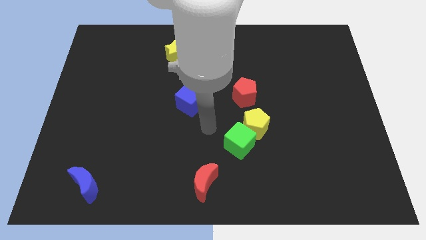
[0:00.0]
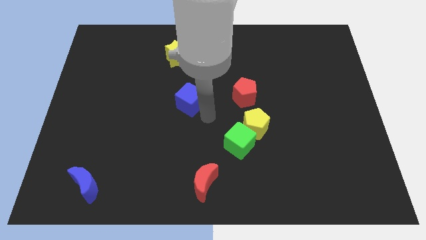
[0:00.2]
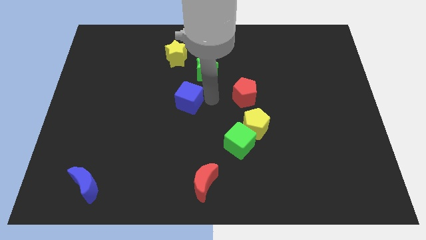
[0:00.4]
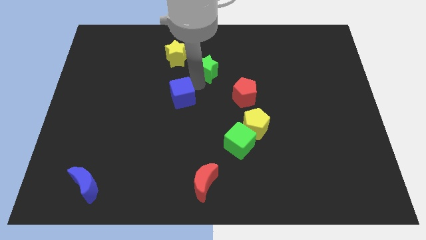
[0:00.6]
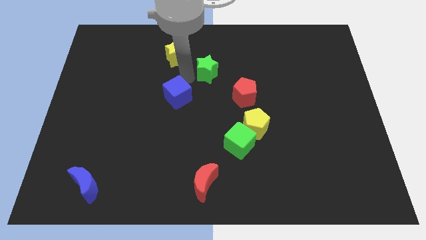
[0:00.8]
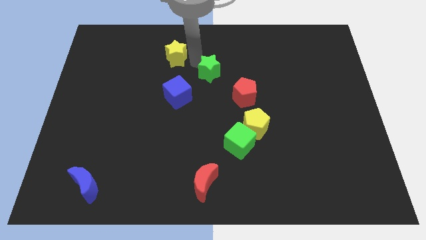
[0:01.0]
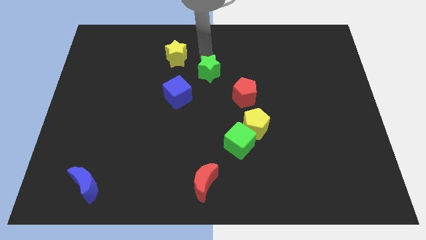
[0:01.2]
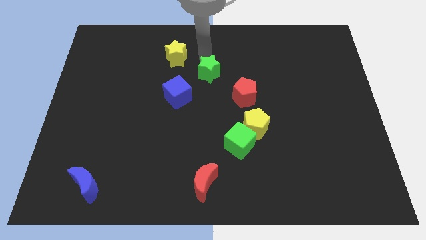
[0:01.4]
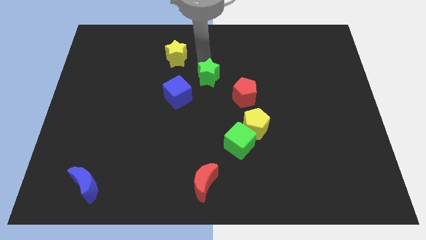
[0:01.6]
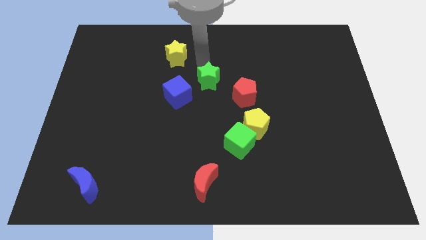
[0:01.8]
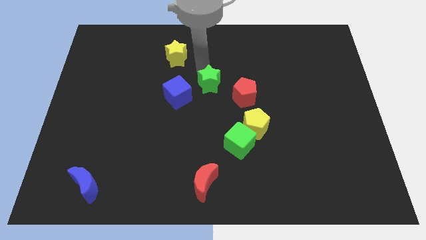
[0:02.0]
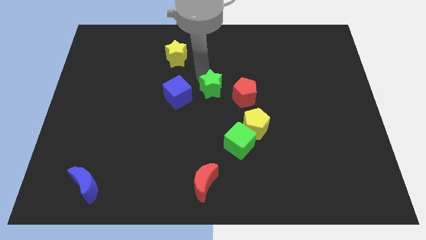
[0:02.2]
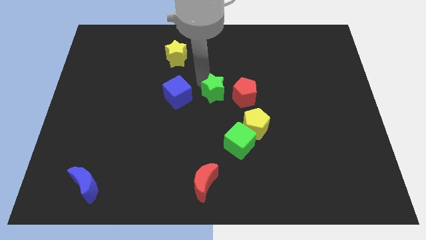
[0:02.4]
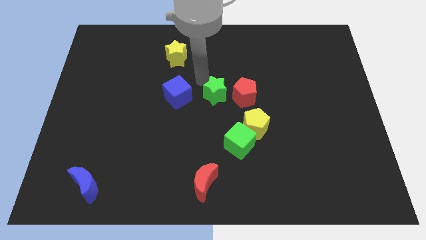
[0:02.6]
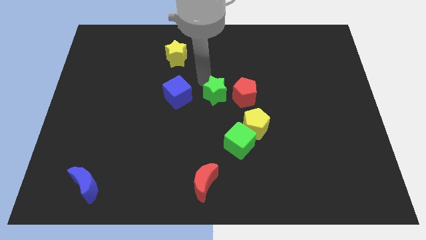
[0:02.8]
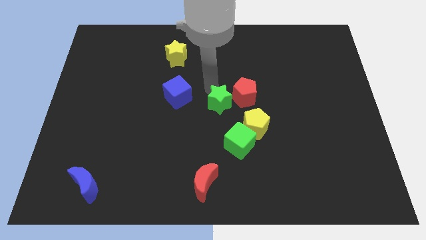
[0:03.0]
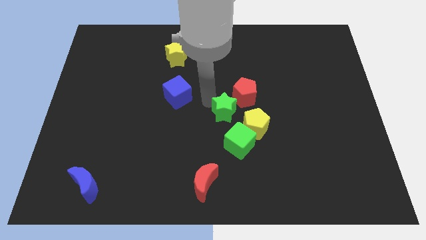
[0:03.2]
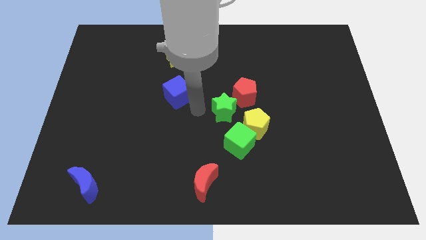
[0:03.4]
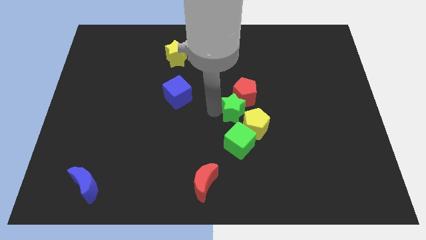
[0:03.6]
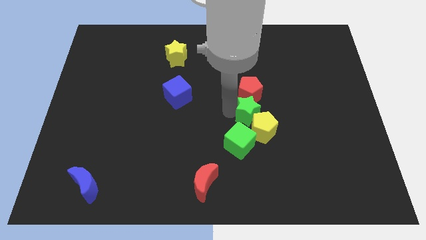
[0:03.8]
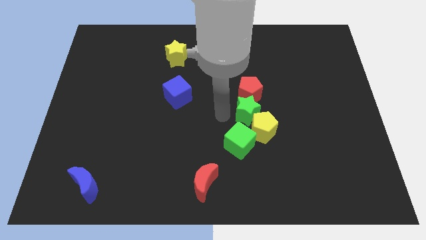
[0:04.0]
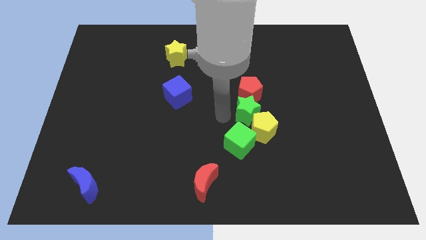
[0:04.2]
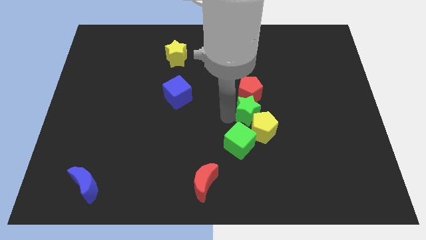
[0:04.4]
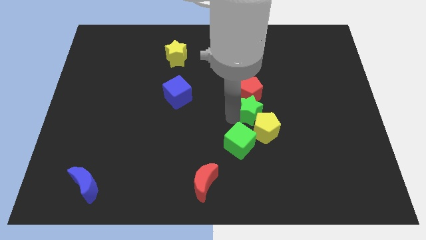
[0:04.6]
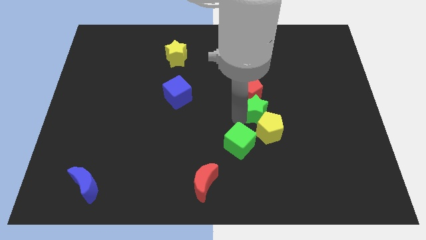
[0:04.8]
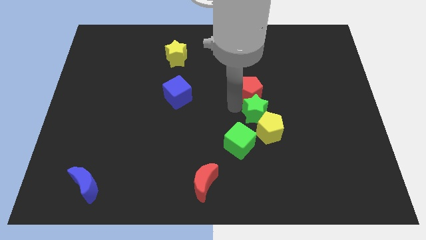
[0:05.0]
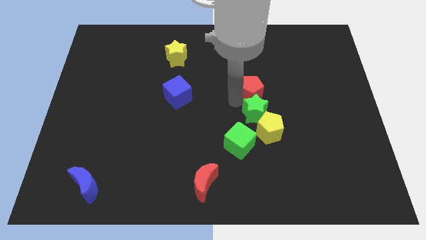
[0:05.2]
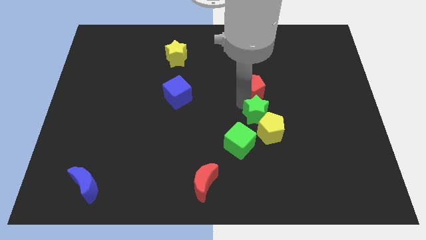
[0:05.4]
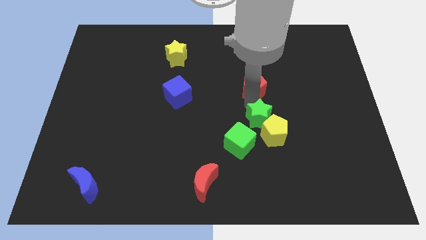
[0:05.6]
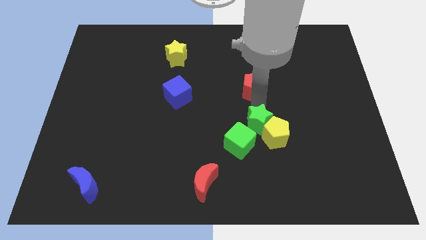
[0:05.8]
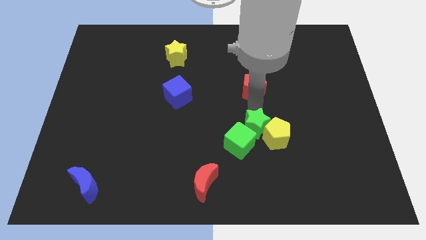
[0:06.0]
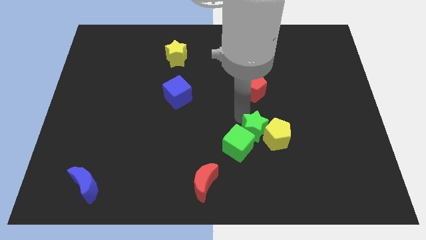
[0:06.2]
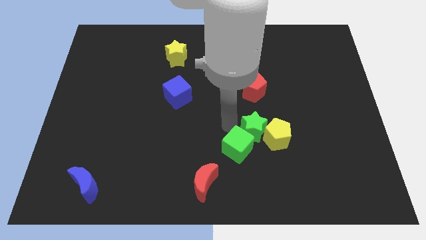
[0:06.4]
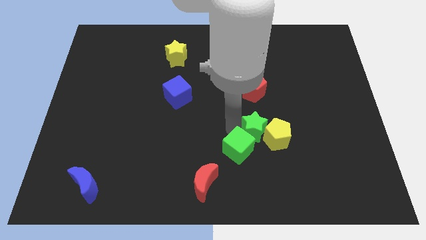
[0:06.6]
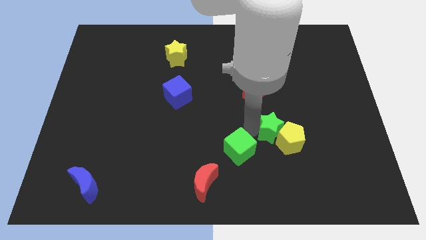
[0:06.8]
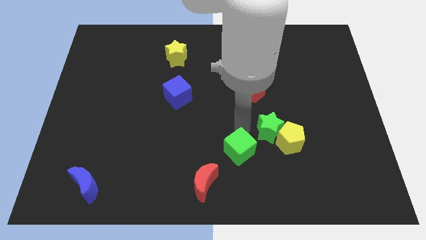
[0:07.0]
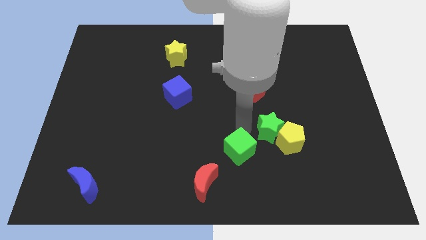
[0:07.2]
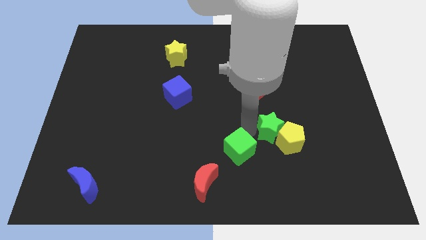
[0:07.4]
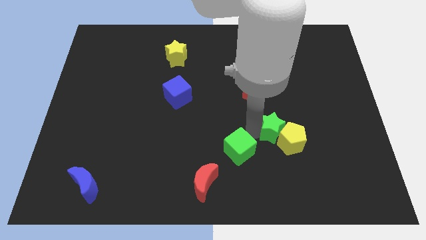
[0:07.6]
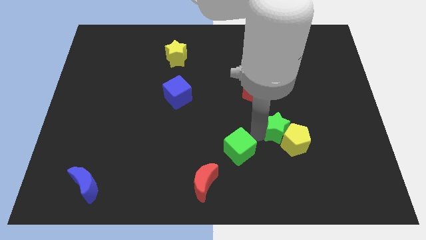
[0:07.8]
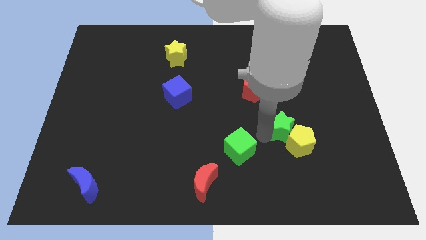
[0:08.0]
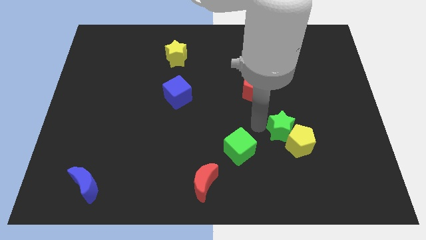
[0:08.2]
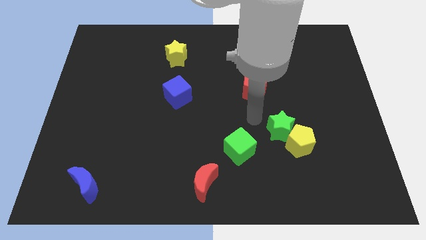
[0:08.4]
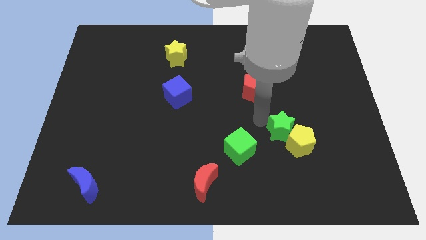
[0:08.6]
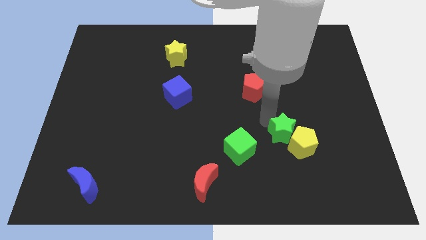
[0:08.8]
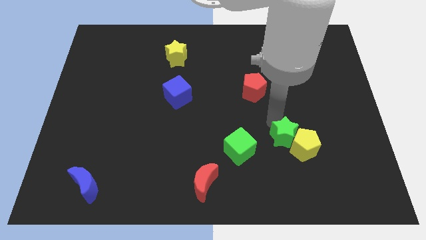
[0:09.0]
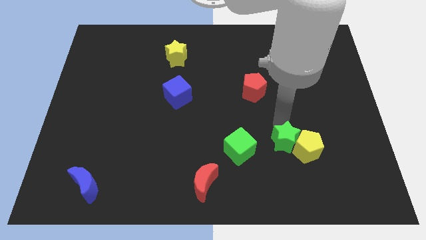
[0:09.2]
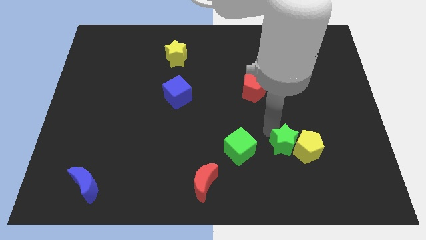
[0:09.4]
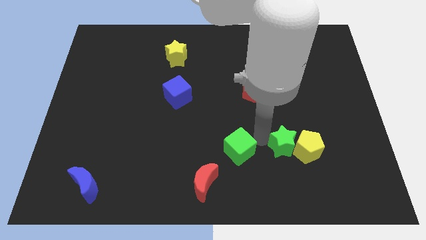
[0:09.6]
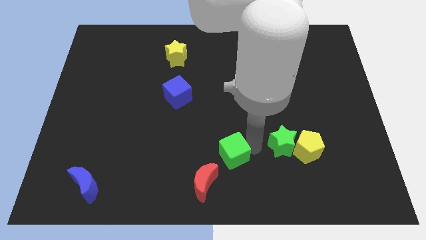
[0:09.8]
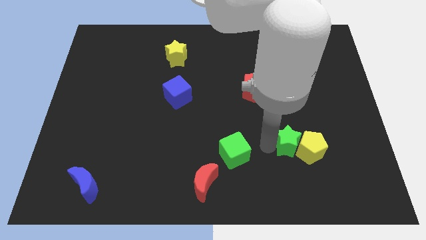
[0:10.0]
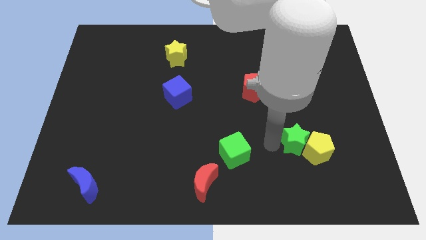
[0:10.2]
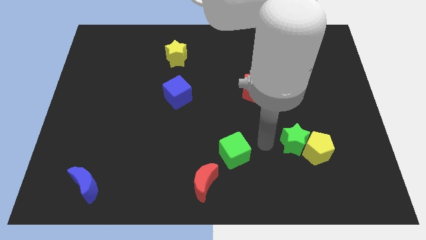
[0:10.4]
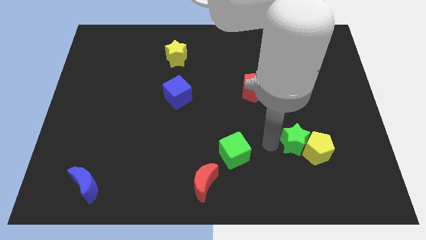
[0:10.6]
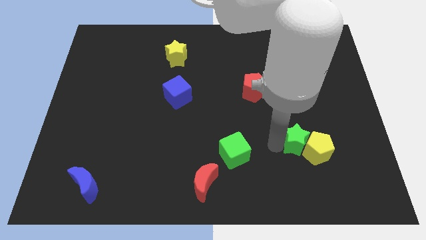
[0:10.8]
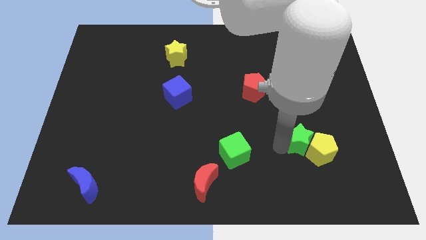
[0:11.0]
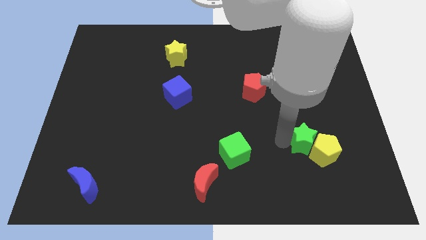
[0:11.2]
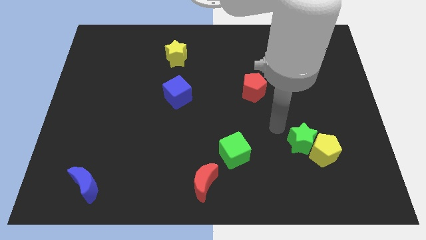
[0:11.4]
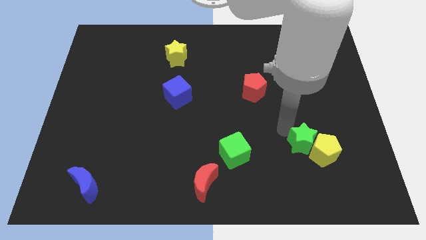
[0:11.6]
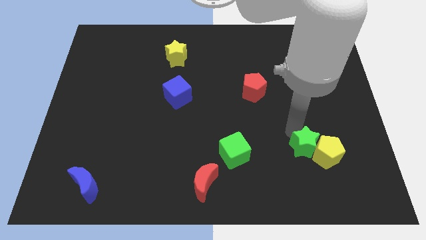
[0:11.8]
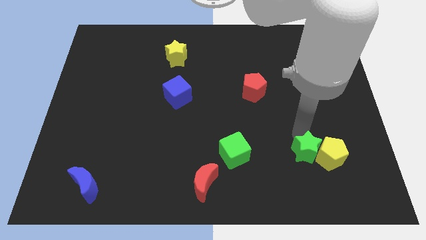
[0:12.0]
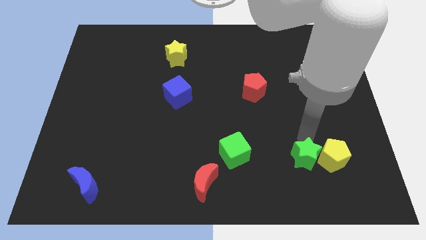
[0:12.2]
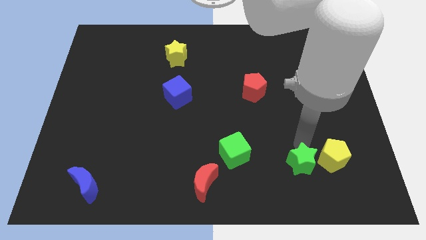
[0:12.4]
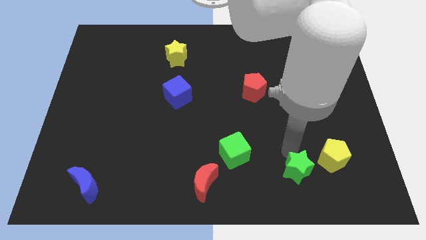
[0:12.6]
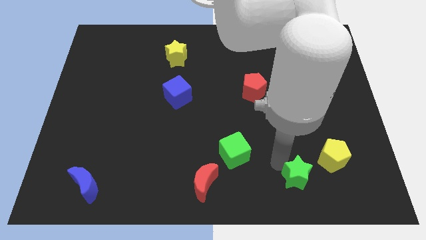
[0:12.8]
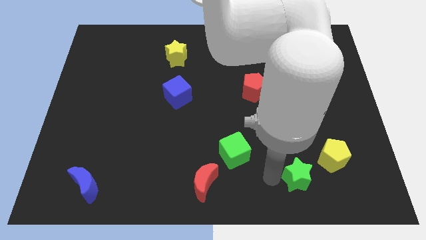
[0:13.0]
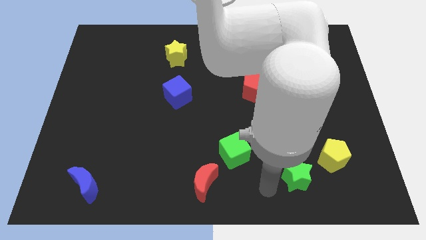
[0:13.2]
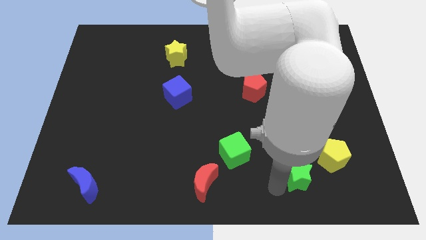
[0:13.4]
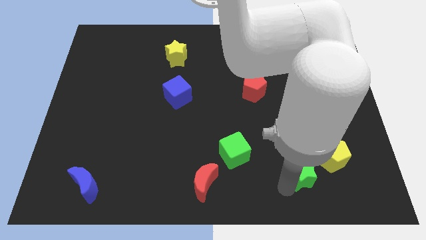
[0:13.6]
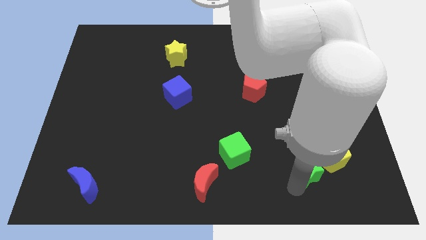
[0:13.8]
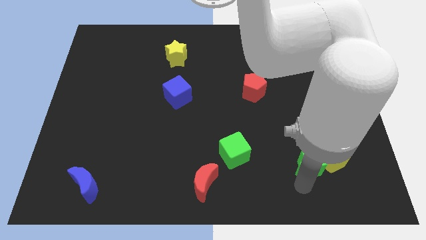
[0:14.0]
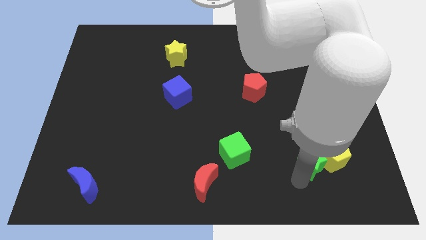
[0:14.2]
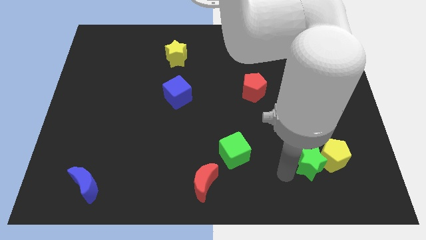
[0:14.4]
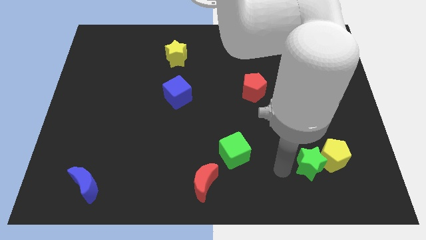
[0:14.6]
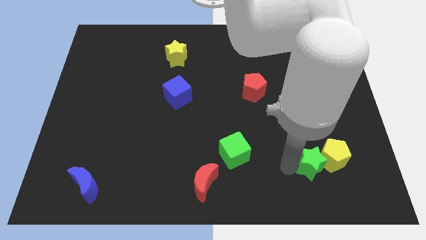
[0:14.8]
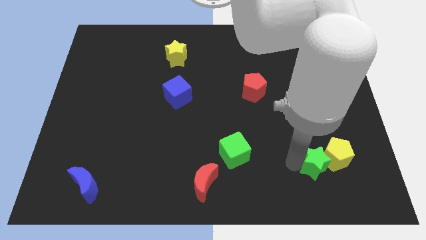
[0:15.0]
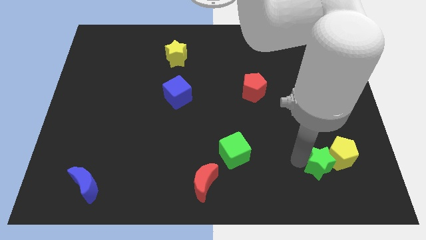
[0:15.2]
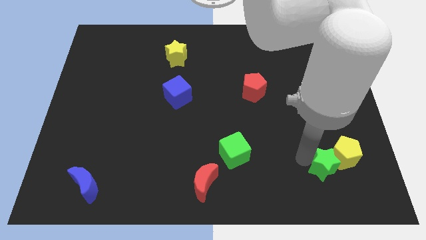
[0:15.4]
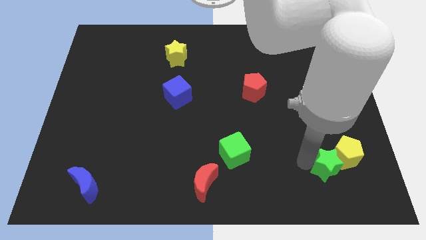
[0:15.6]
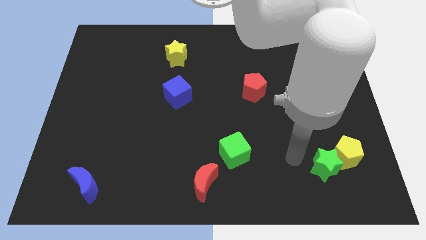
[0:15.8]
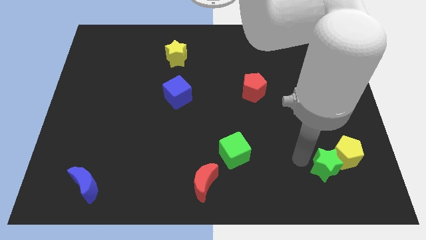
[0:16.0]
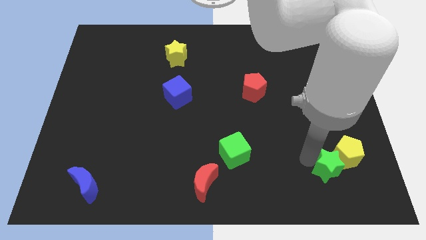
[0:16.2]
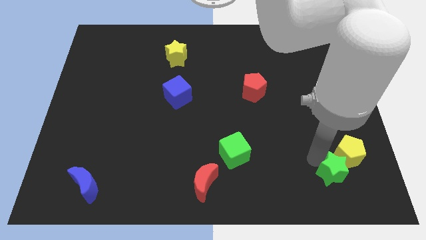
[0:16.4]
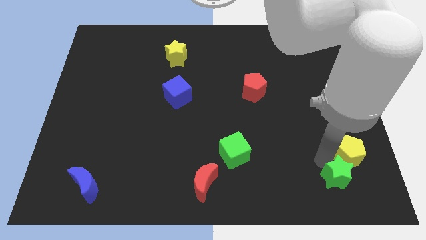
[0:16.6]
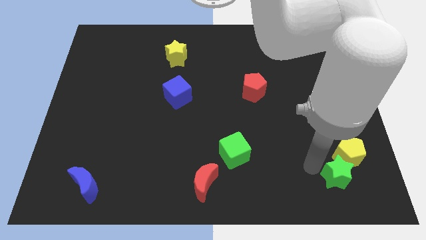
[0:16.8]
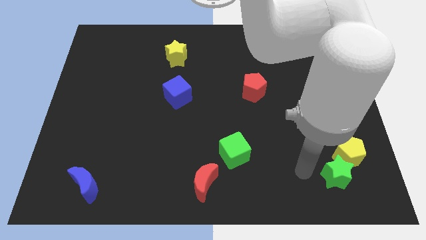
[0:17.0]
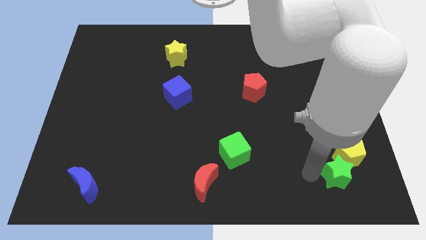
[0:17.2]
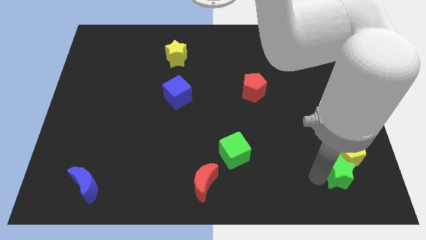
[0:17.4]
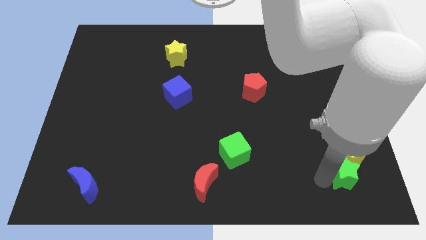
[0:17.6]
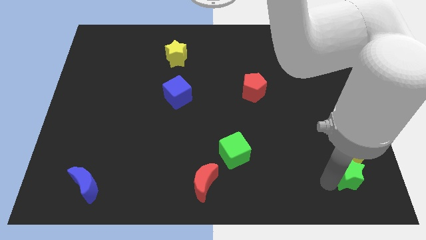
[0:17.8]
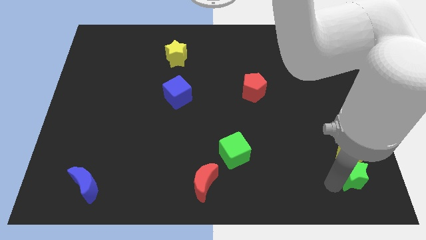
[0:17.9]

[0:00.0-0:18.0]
slide the green star to the bottom right
